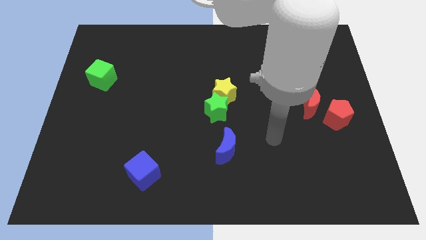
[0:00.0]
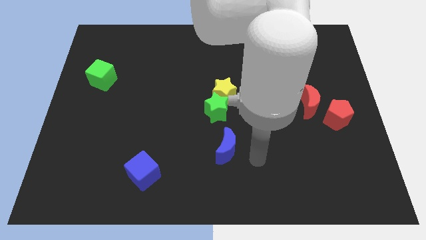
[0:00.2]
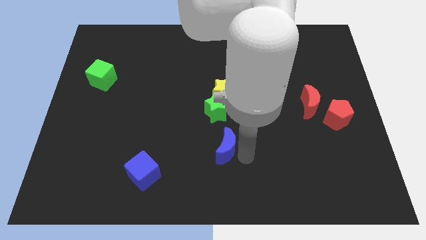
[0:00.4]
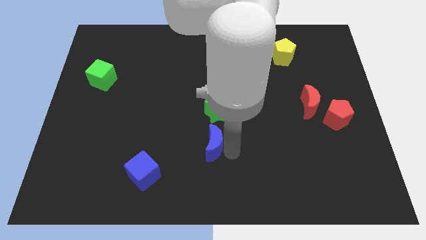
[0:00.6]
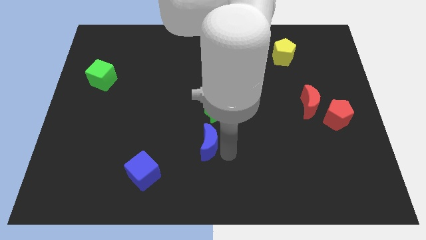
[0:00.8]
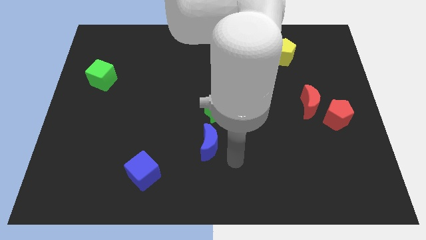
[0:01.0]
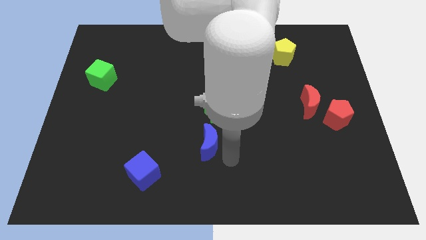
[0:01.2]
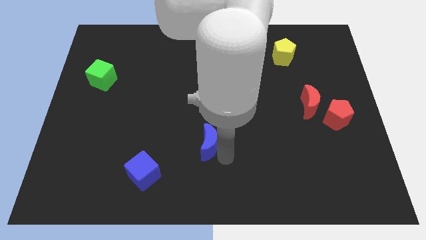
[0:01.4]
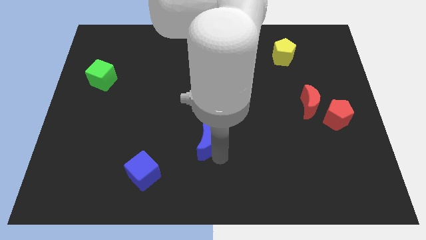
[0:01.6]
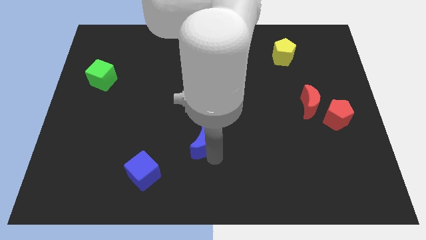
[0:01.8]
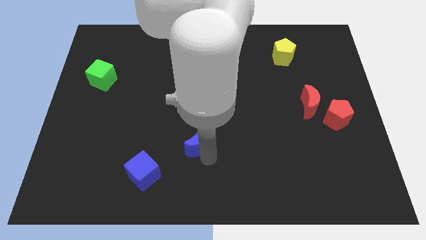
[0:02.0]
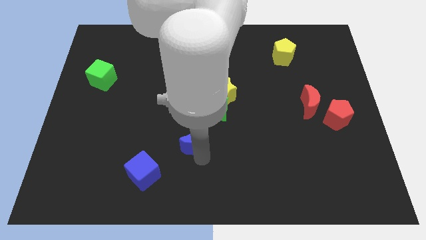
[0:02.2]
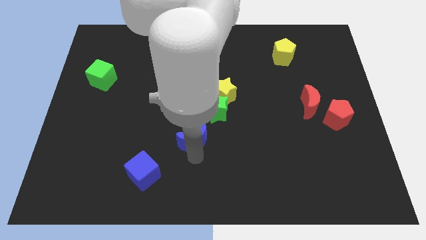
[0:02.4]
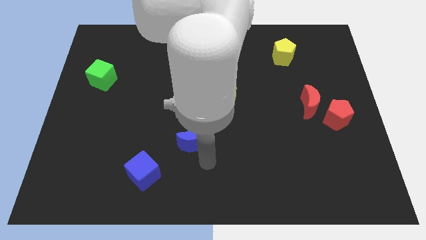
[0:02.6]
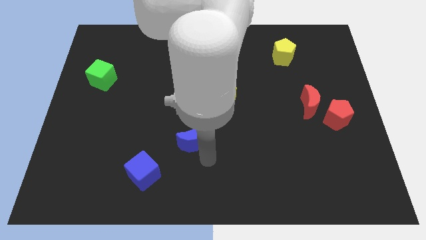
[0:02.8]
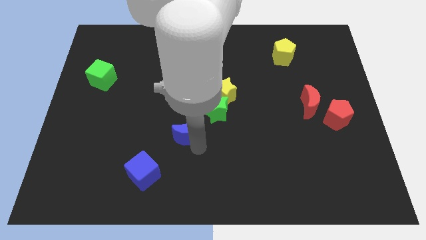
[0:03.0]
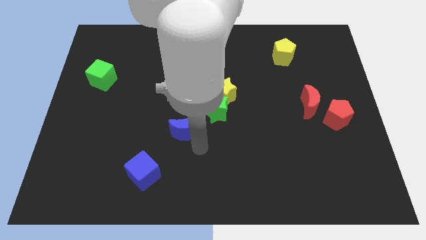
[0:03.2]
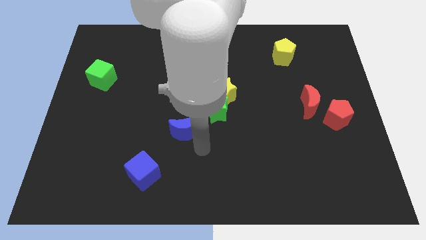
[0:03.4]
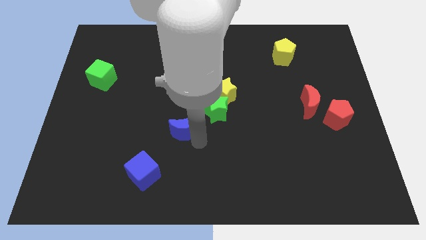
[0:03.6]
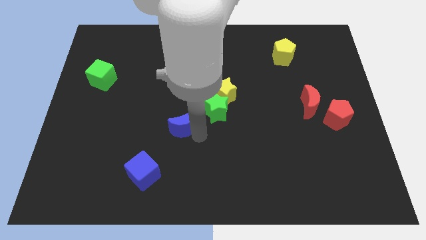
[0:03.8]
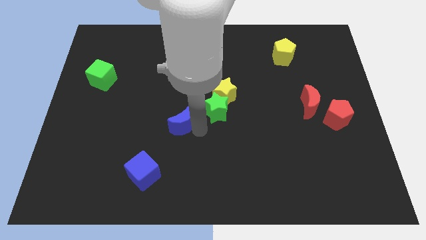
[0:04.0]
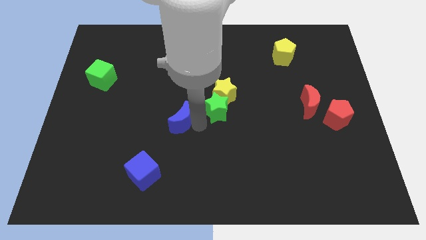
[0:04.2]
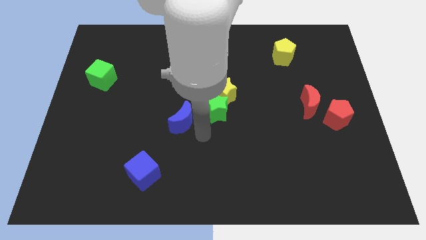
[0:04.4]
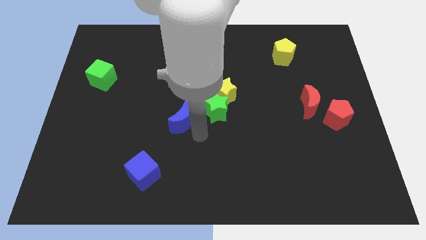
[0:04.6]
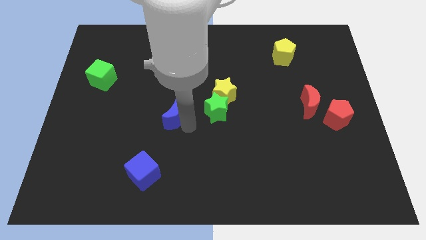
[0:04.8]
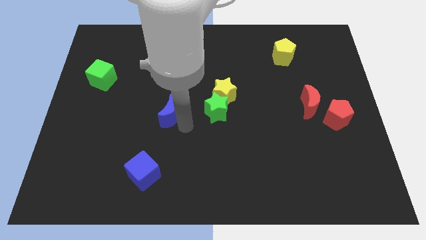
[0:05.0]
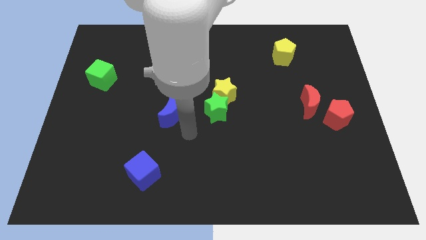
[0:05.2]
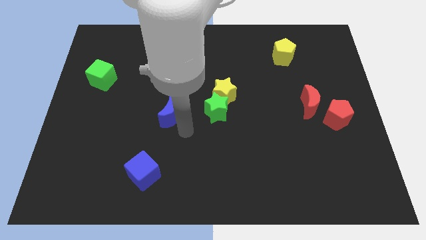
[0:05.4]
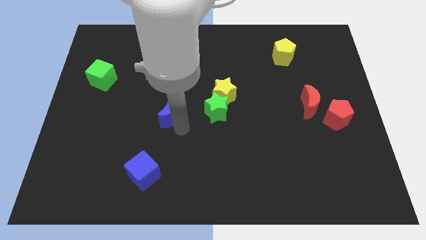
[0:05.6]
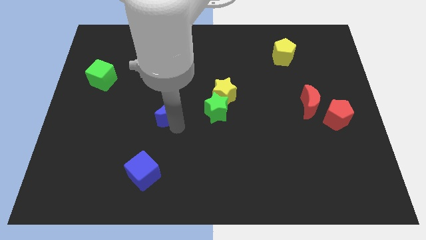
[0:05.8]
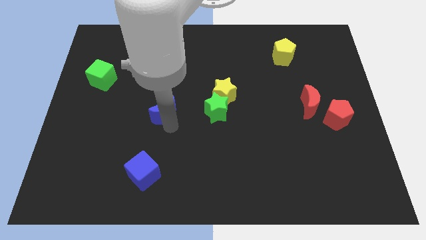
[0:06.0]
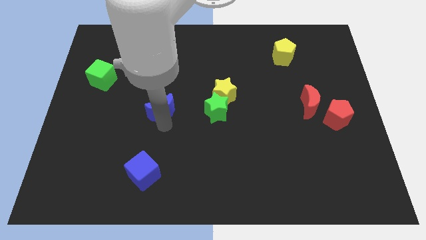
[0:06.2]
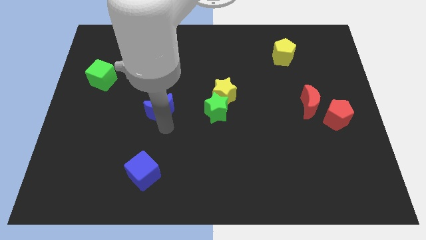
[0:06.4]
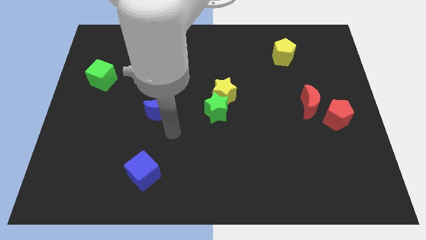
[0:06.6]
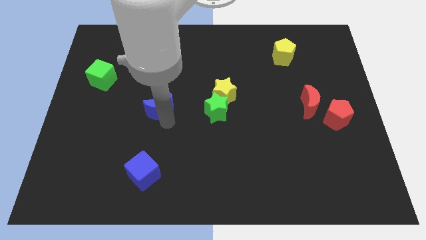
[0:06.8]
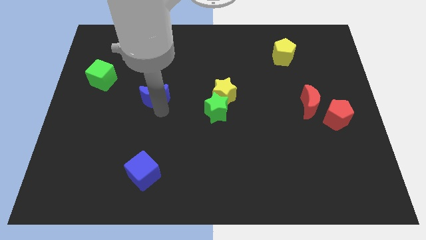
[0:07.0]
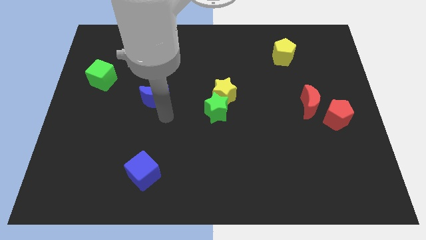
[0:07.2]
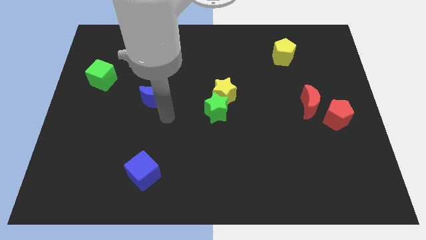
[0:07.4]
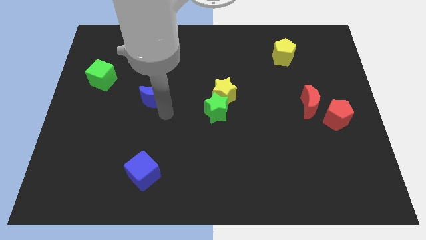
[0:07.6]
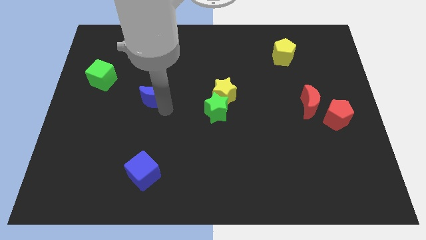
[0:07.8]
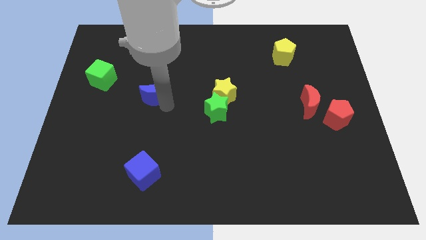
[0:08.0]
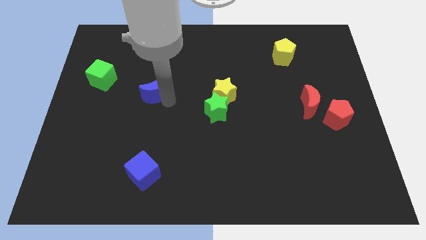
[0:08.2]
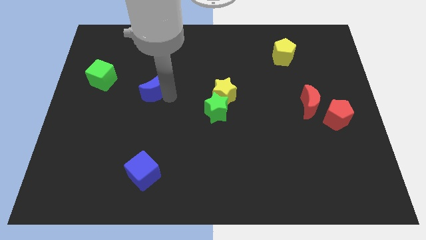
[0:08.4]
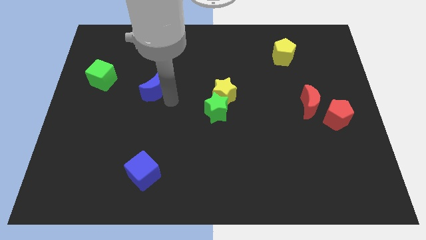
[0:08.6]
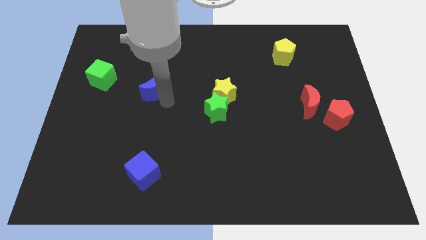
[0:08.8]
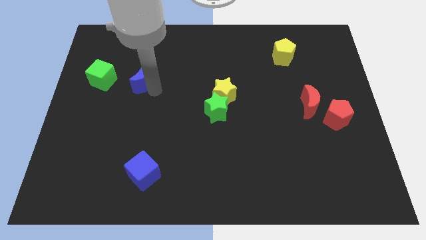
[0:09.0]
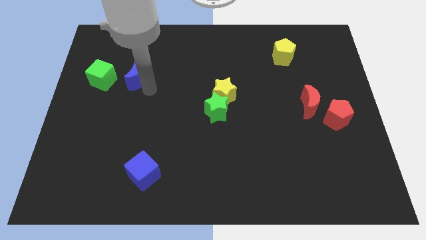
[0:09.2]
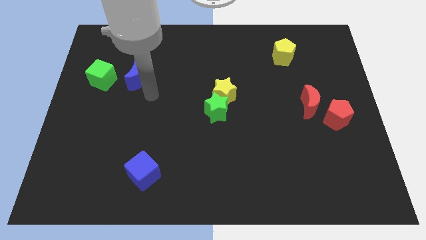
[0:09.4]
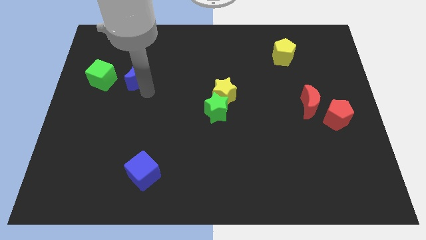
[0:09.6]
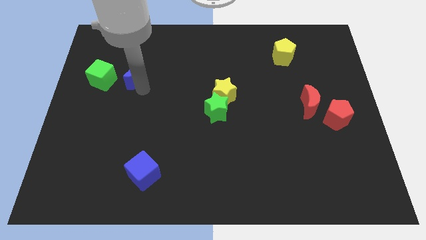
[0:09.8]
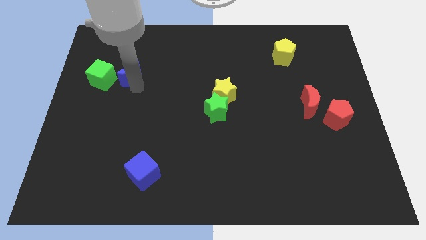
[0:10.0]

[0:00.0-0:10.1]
put the blue moon diagonally up and to the right of the green cube

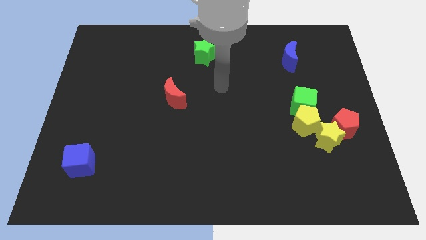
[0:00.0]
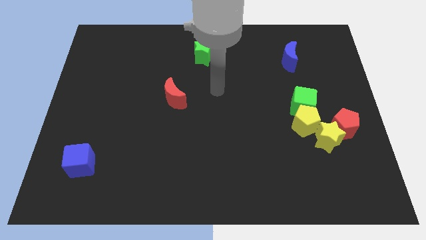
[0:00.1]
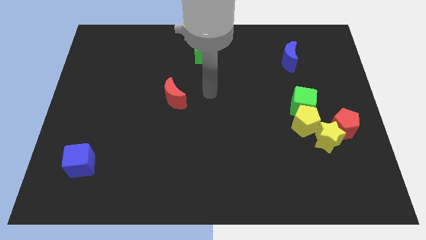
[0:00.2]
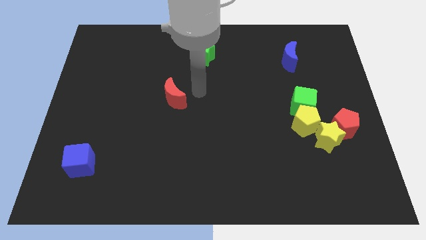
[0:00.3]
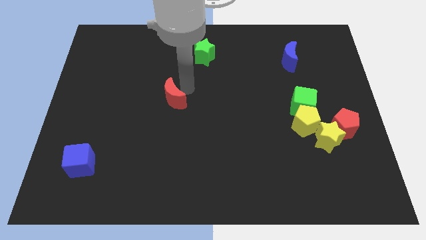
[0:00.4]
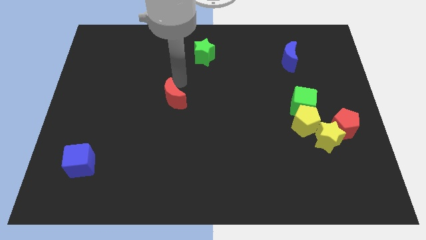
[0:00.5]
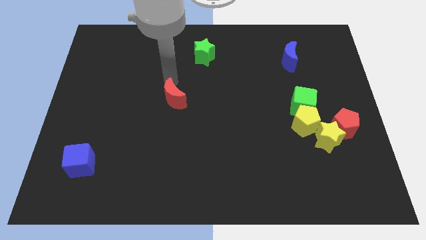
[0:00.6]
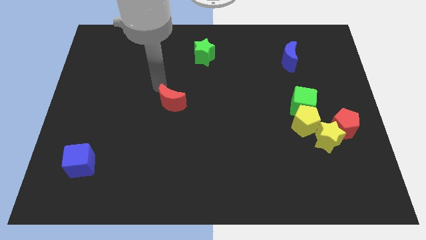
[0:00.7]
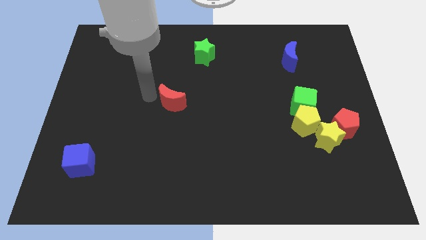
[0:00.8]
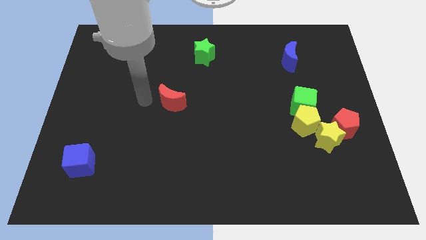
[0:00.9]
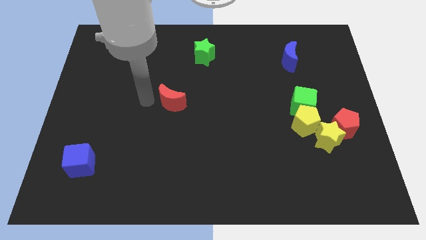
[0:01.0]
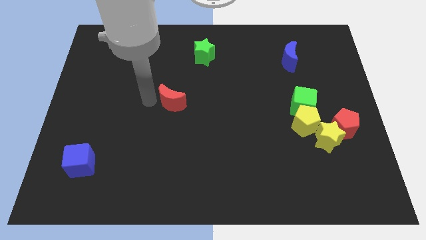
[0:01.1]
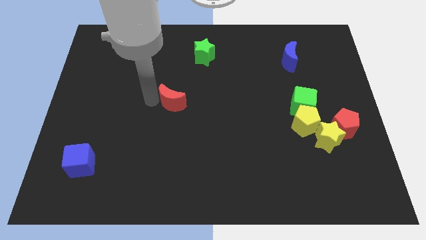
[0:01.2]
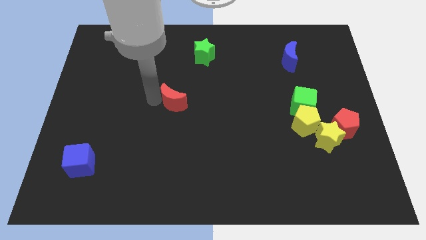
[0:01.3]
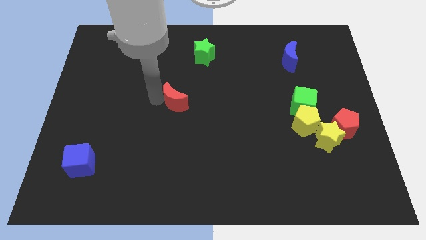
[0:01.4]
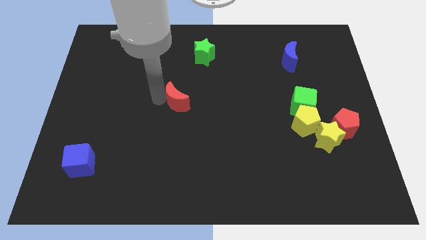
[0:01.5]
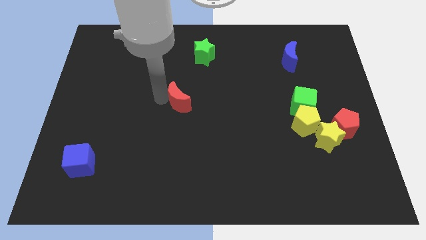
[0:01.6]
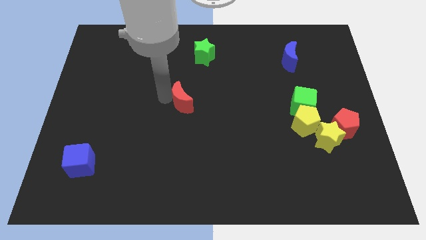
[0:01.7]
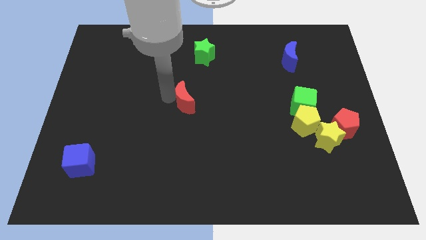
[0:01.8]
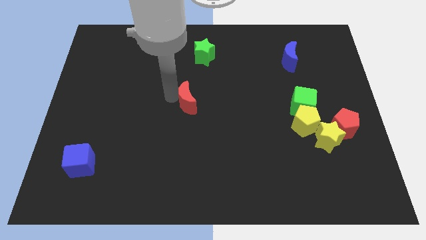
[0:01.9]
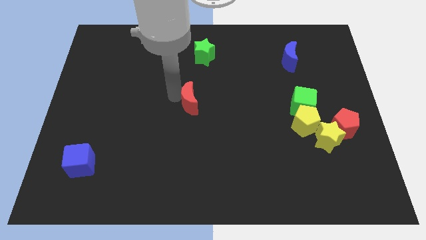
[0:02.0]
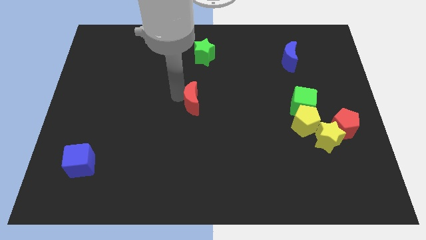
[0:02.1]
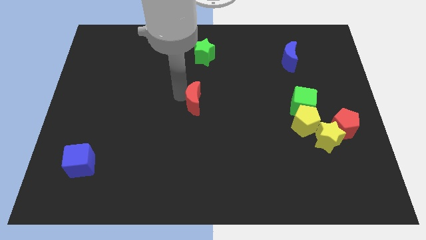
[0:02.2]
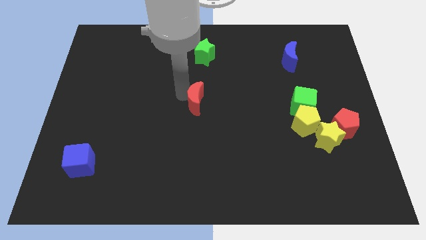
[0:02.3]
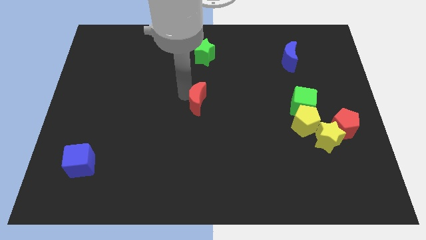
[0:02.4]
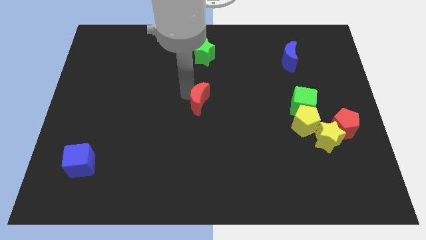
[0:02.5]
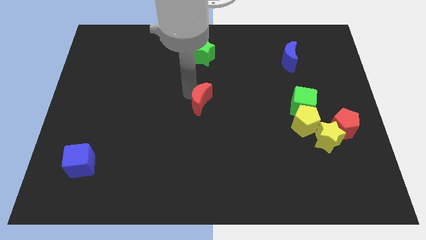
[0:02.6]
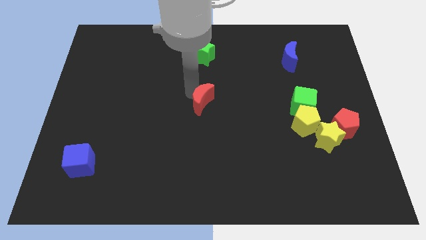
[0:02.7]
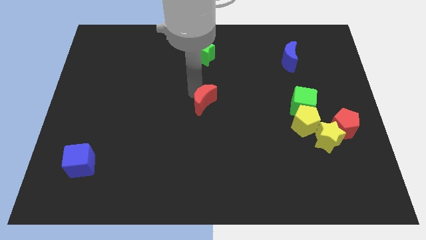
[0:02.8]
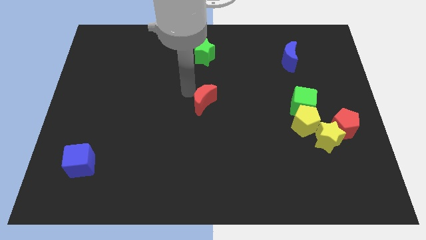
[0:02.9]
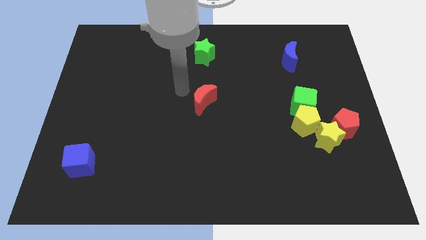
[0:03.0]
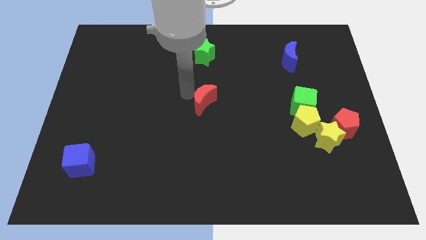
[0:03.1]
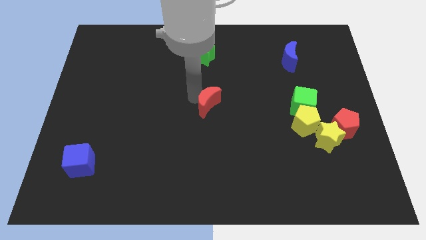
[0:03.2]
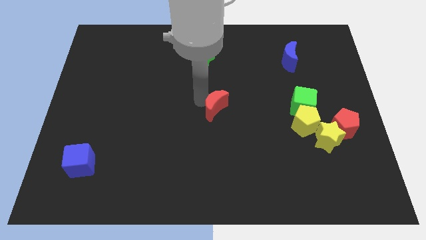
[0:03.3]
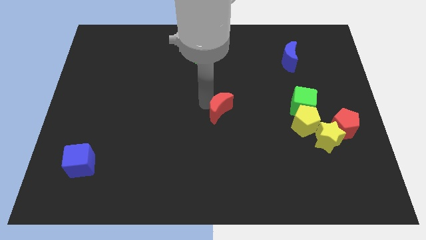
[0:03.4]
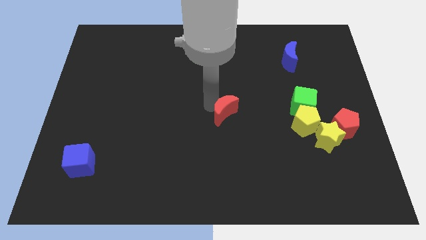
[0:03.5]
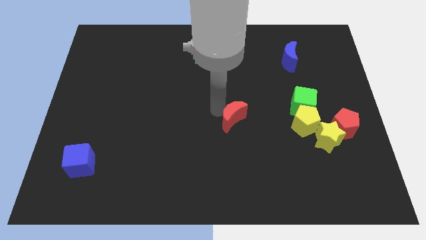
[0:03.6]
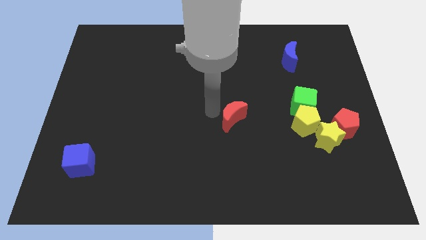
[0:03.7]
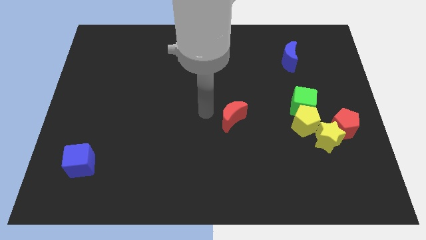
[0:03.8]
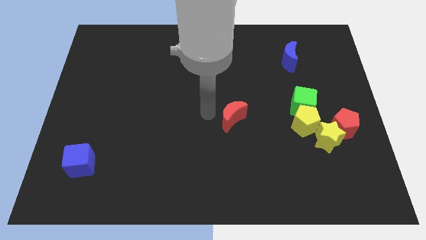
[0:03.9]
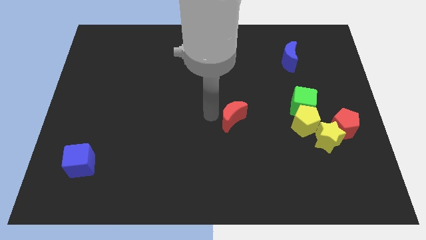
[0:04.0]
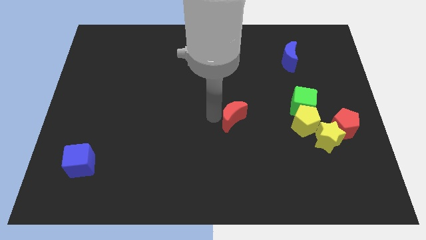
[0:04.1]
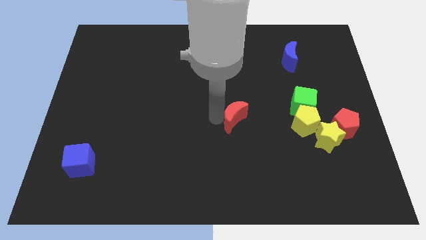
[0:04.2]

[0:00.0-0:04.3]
move the red moon left of the yellow pentagon
